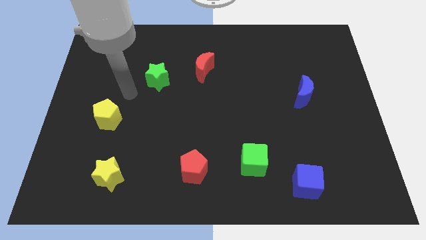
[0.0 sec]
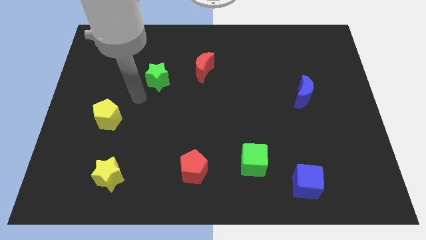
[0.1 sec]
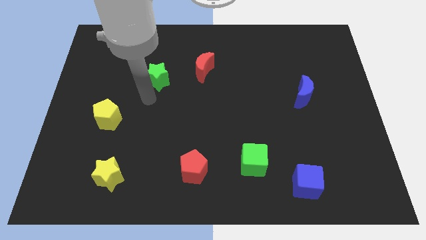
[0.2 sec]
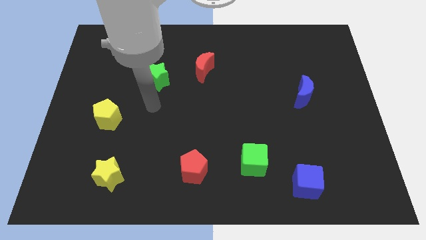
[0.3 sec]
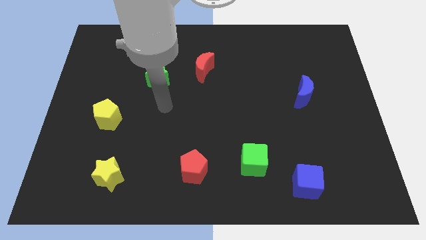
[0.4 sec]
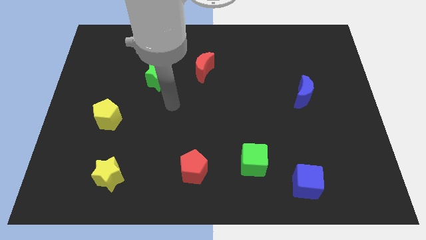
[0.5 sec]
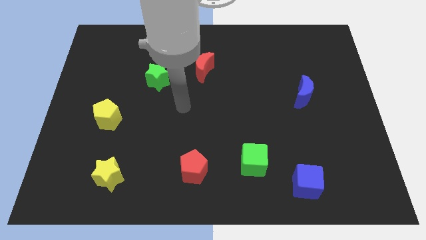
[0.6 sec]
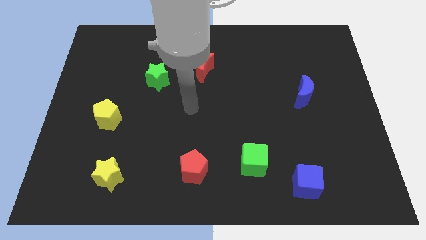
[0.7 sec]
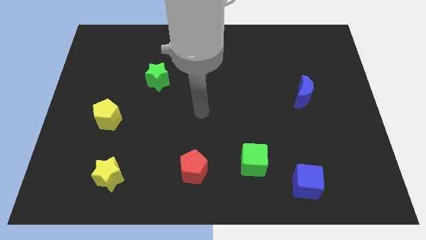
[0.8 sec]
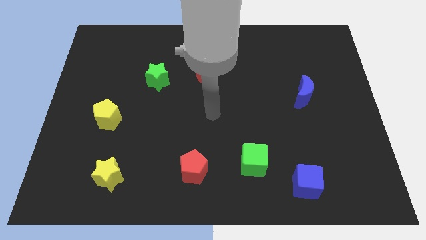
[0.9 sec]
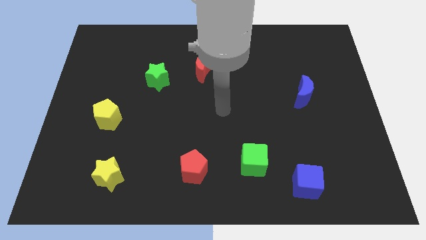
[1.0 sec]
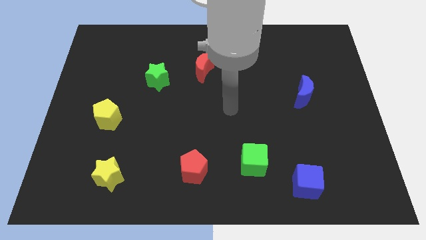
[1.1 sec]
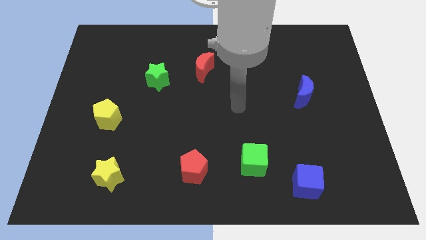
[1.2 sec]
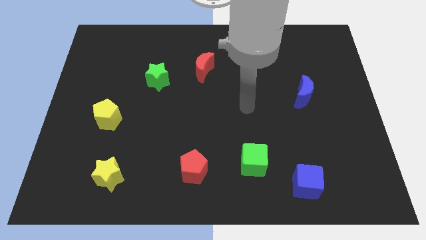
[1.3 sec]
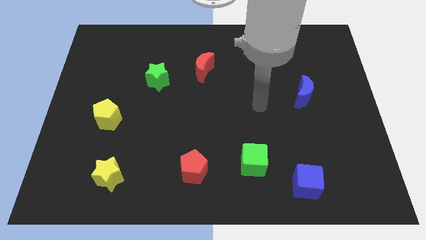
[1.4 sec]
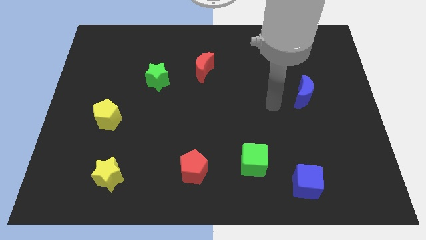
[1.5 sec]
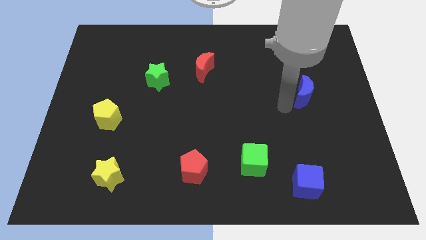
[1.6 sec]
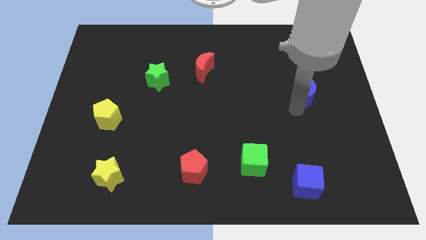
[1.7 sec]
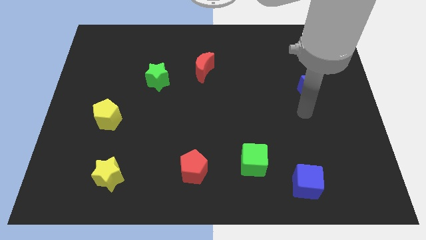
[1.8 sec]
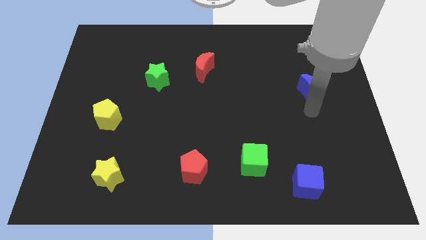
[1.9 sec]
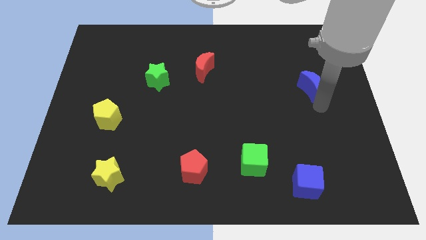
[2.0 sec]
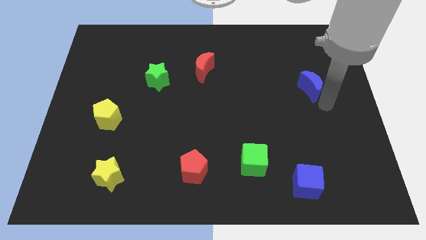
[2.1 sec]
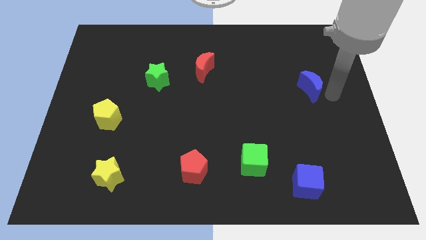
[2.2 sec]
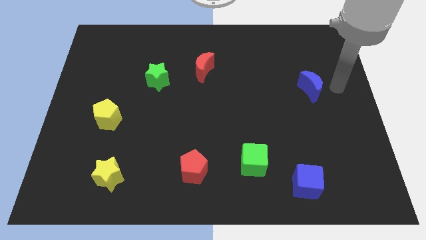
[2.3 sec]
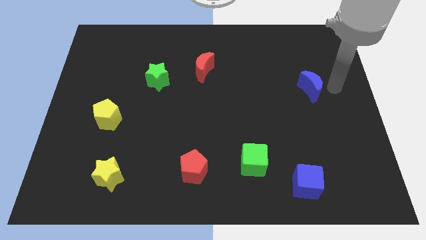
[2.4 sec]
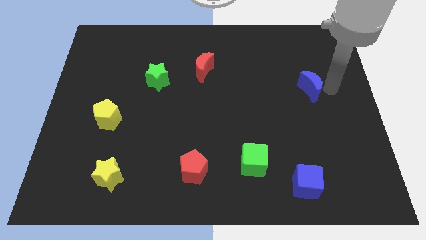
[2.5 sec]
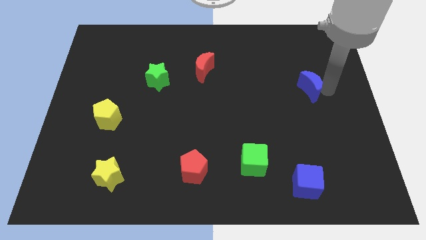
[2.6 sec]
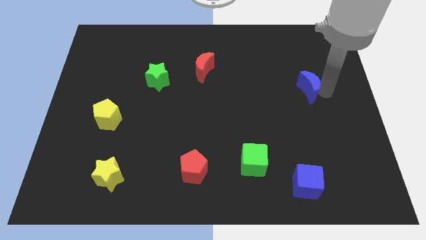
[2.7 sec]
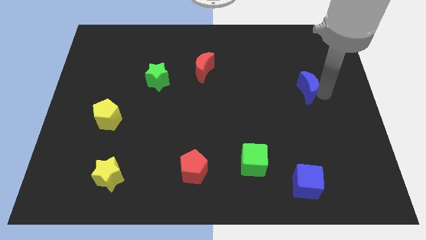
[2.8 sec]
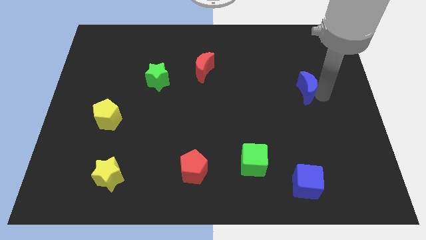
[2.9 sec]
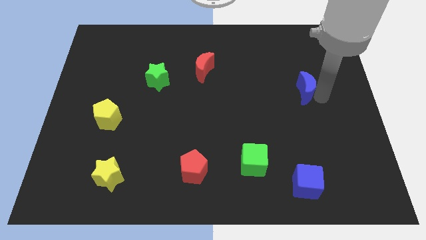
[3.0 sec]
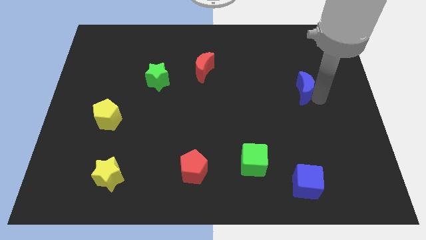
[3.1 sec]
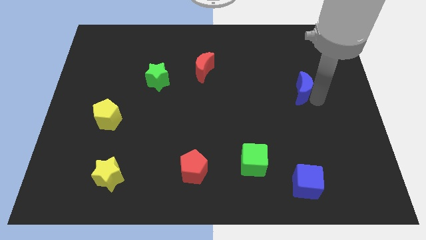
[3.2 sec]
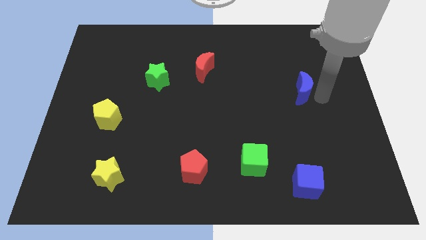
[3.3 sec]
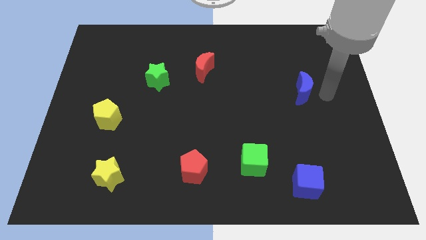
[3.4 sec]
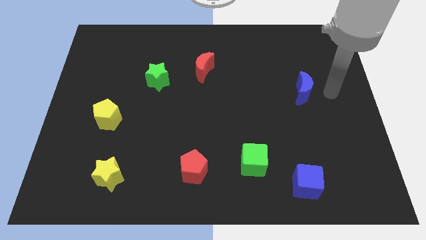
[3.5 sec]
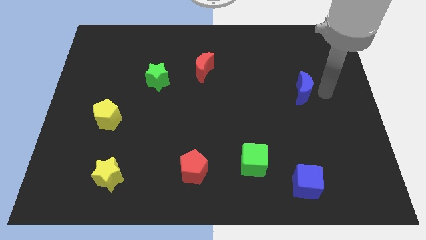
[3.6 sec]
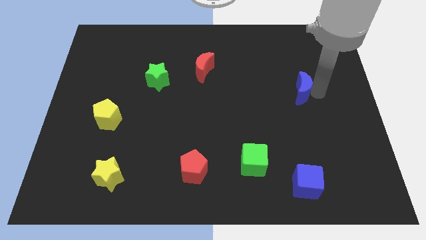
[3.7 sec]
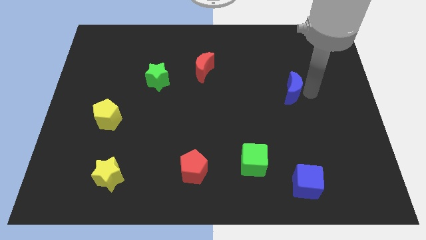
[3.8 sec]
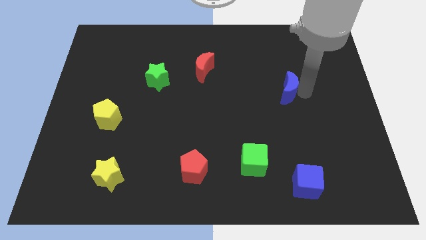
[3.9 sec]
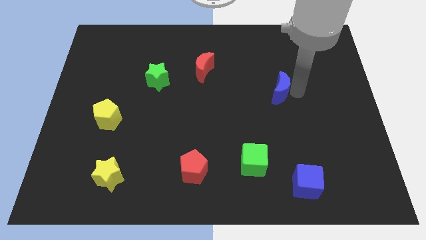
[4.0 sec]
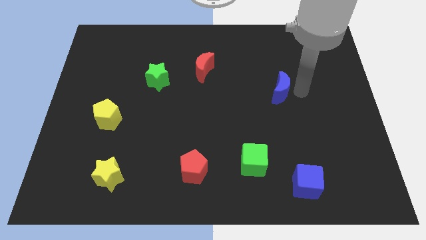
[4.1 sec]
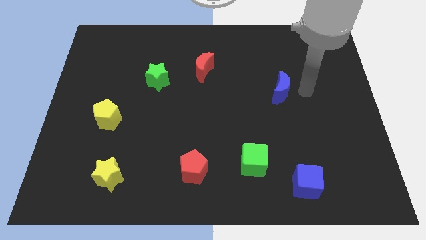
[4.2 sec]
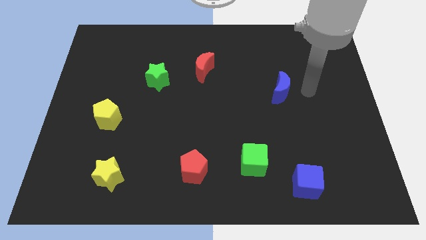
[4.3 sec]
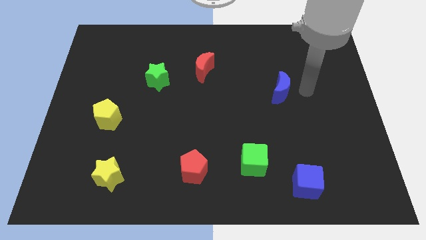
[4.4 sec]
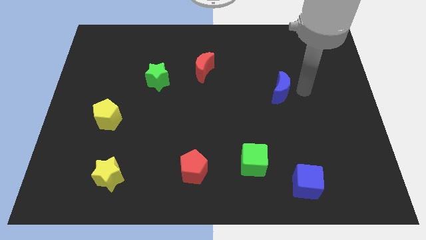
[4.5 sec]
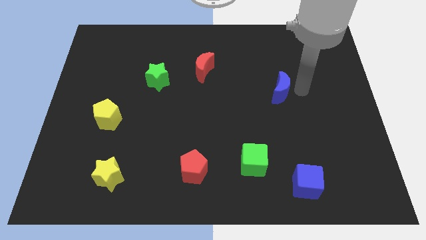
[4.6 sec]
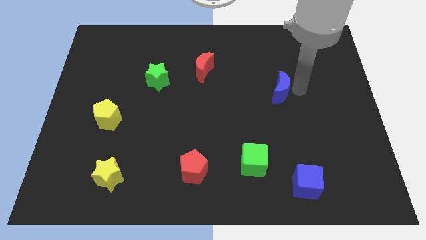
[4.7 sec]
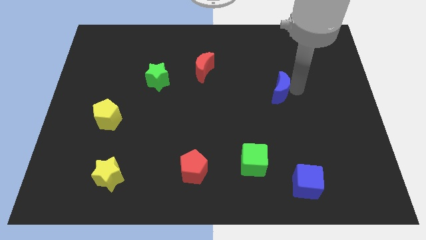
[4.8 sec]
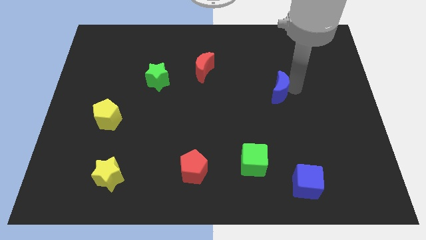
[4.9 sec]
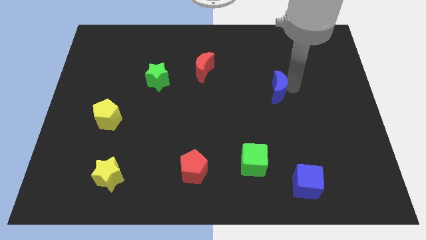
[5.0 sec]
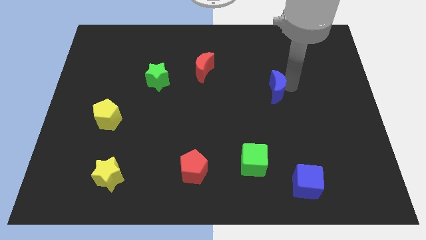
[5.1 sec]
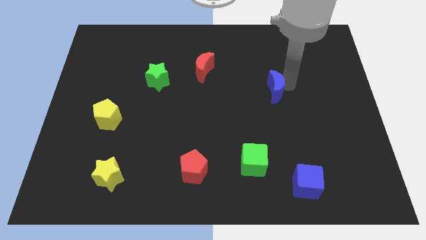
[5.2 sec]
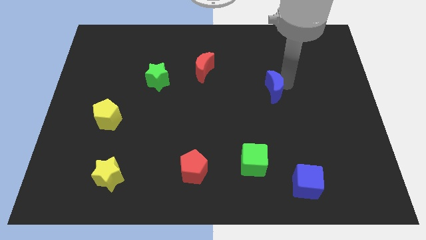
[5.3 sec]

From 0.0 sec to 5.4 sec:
slightly push the blue moon left

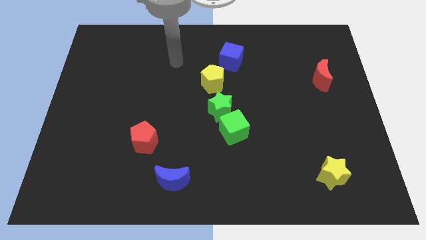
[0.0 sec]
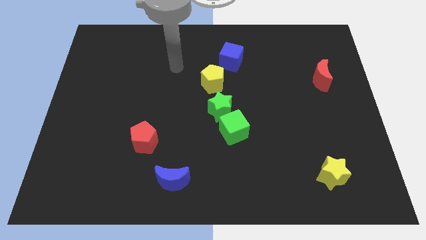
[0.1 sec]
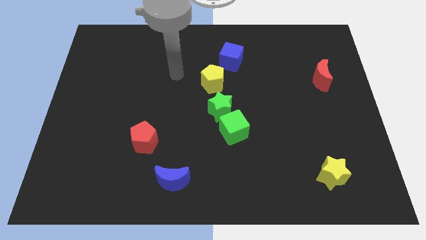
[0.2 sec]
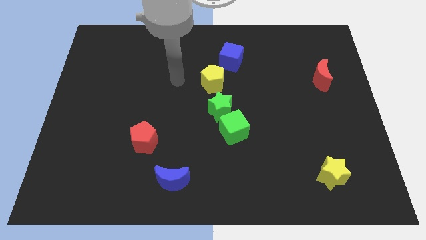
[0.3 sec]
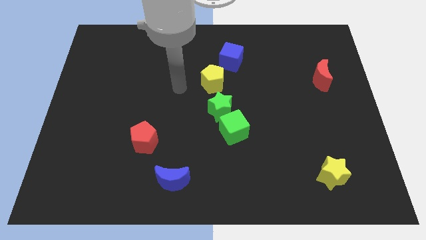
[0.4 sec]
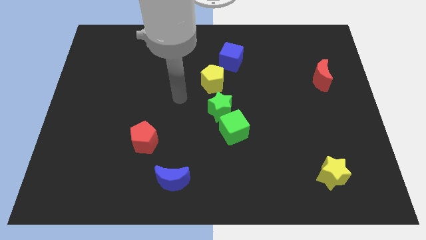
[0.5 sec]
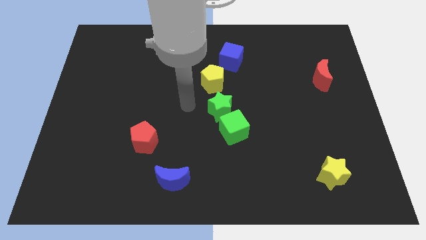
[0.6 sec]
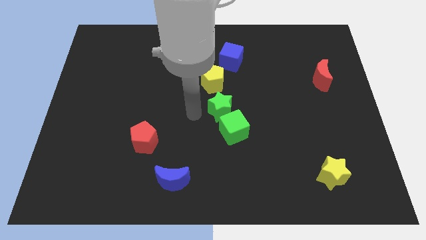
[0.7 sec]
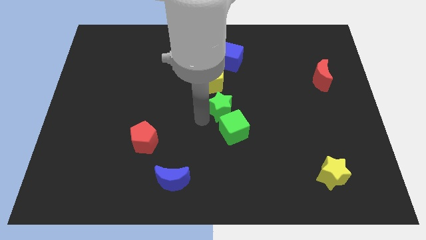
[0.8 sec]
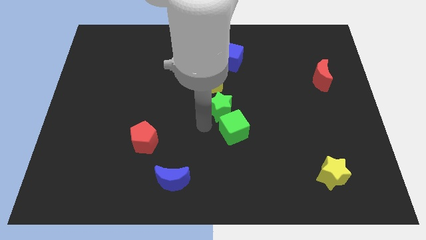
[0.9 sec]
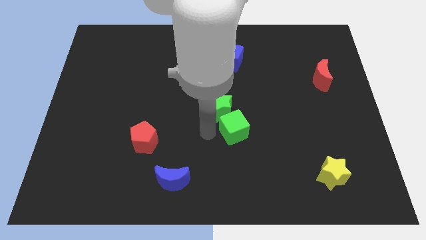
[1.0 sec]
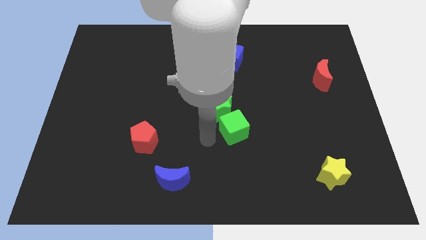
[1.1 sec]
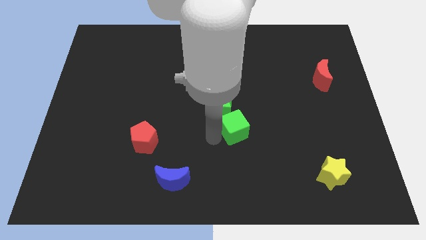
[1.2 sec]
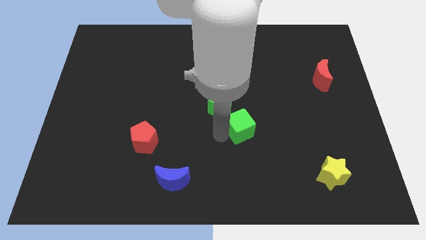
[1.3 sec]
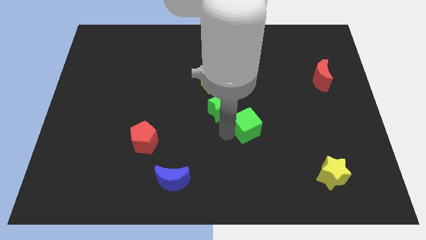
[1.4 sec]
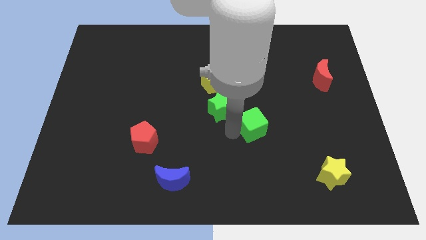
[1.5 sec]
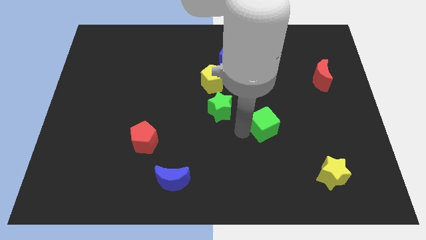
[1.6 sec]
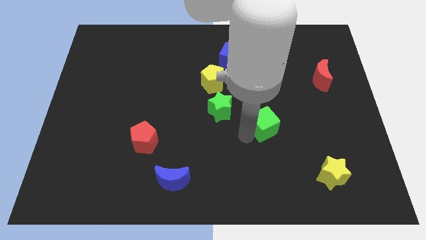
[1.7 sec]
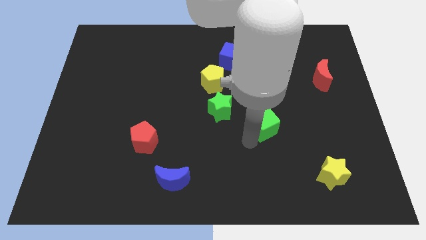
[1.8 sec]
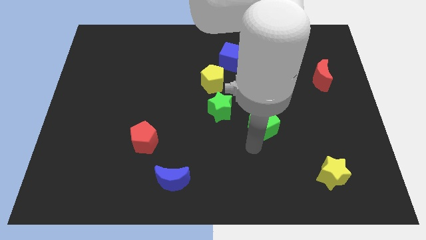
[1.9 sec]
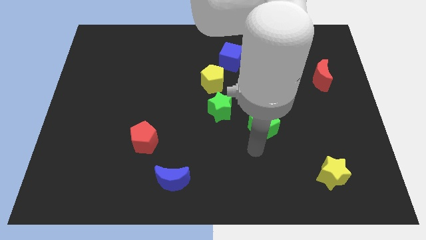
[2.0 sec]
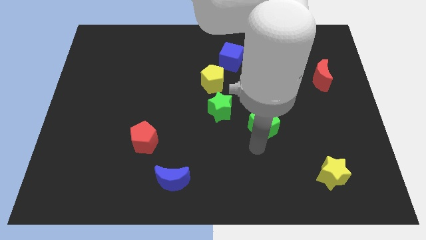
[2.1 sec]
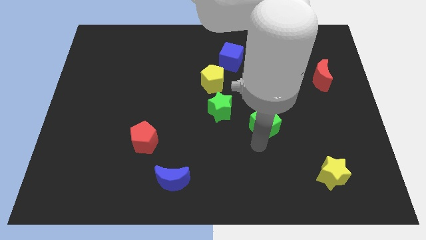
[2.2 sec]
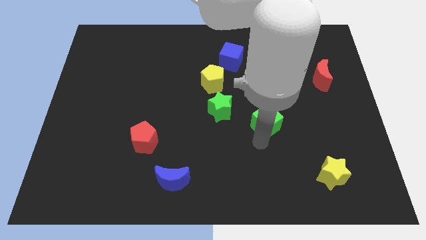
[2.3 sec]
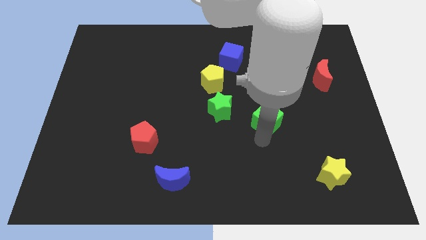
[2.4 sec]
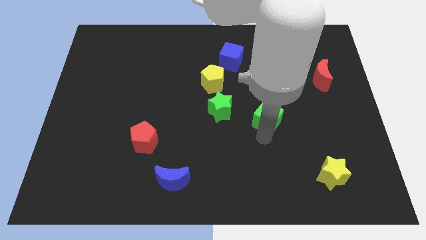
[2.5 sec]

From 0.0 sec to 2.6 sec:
slide the green cube up and then right a little
